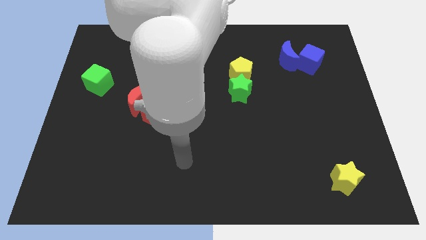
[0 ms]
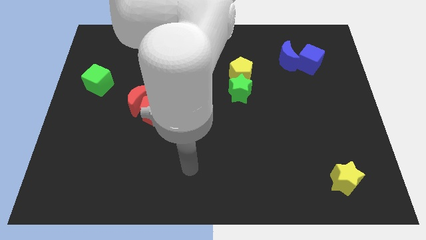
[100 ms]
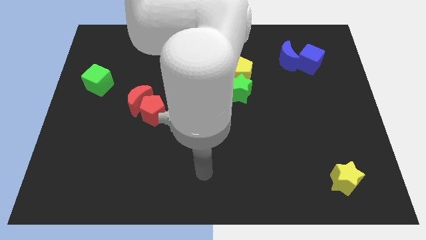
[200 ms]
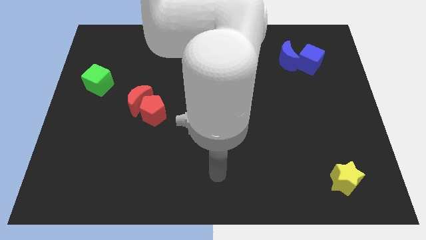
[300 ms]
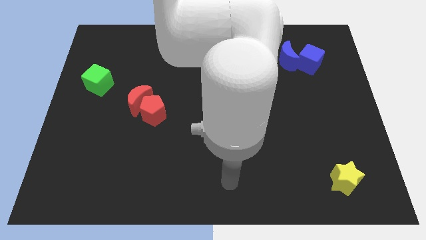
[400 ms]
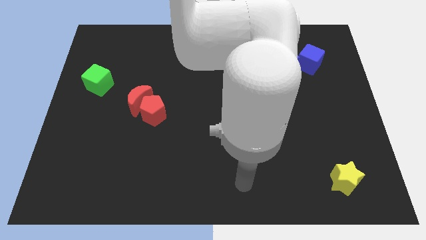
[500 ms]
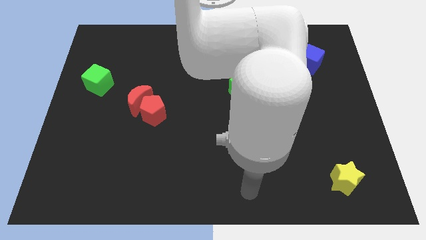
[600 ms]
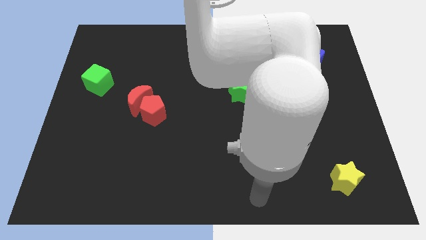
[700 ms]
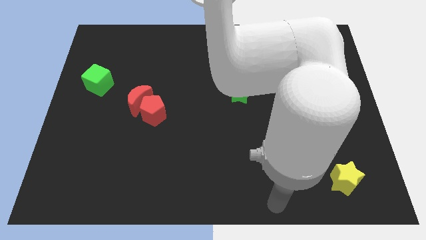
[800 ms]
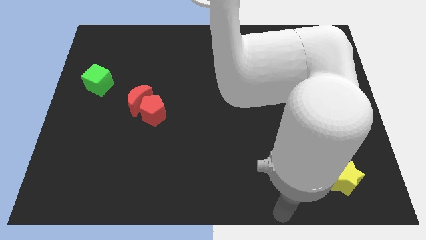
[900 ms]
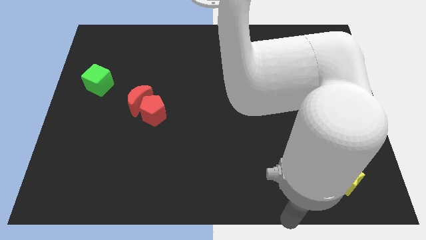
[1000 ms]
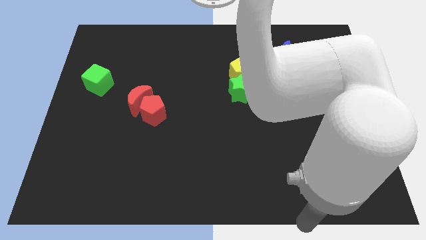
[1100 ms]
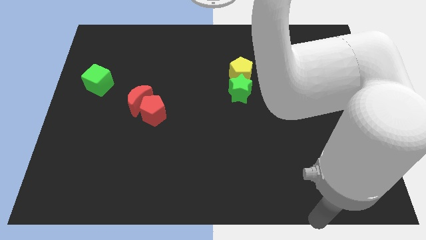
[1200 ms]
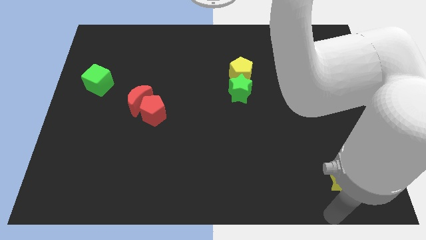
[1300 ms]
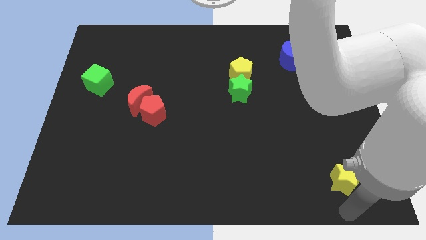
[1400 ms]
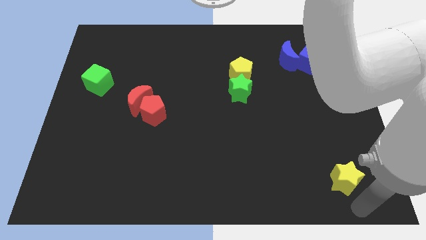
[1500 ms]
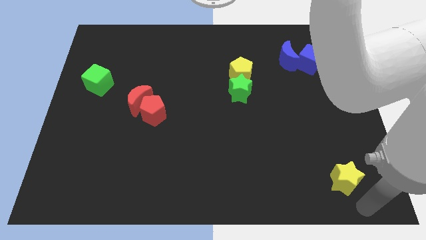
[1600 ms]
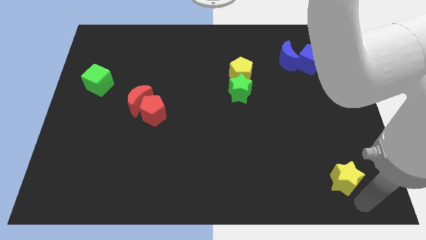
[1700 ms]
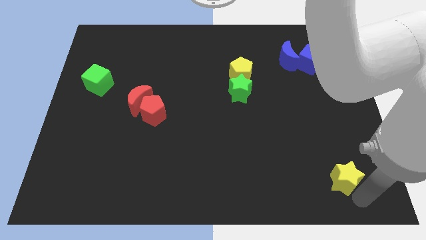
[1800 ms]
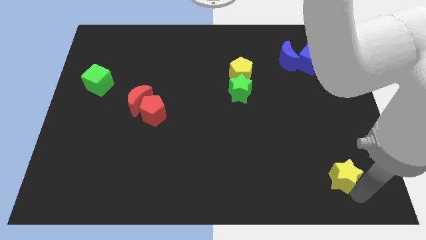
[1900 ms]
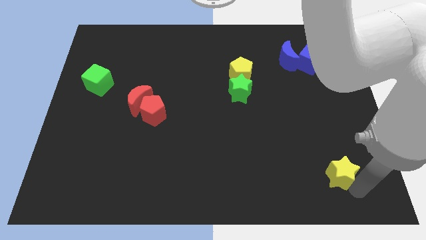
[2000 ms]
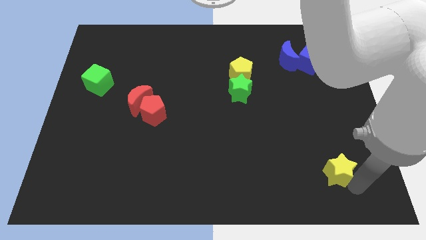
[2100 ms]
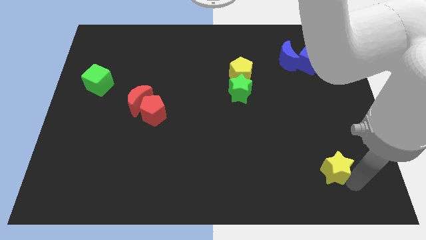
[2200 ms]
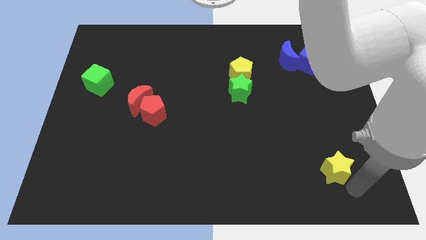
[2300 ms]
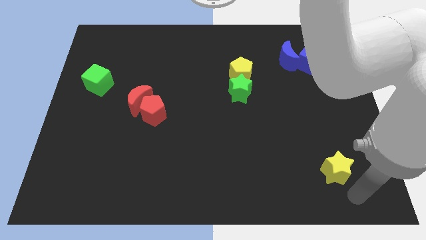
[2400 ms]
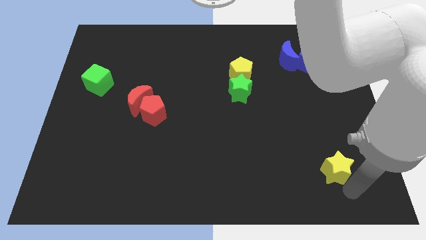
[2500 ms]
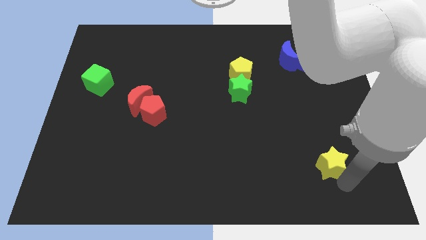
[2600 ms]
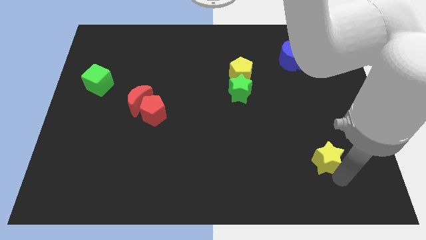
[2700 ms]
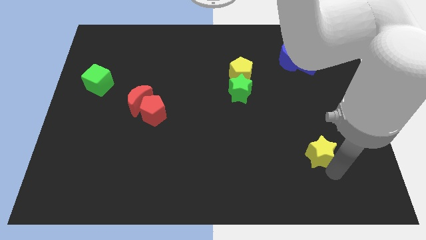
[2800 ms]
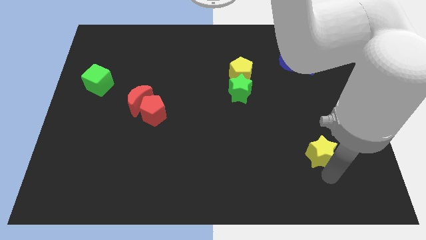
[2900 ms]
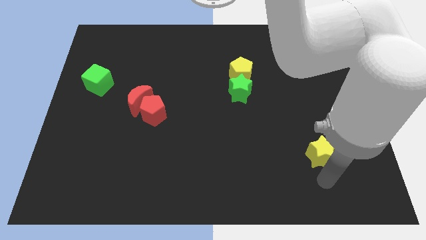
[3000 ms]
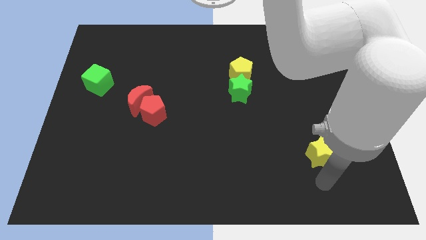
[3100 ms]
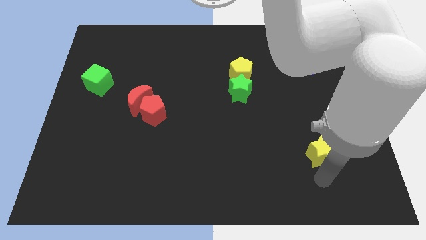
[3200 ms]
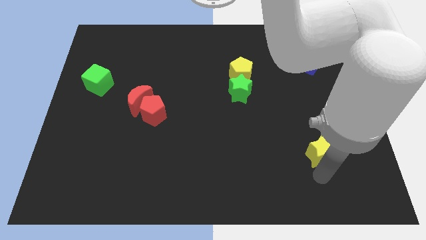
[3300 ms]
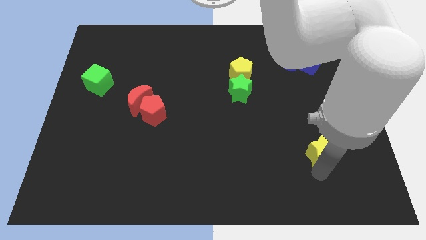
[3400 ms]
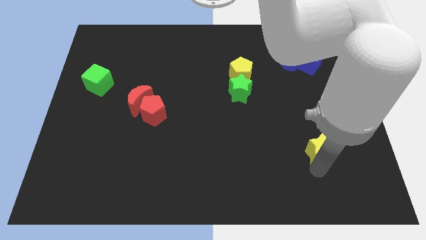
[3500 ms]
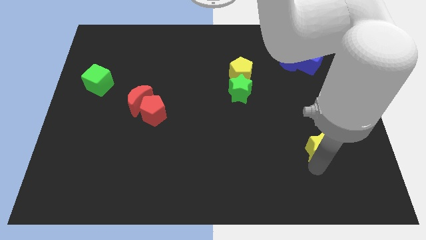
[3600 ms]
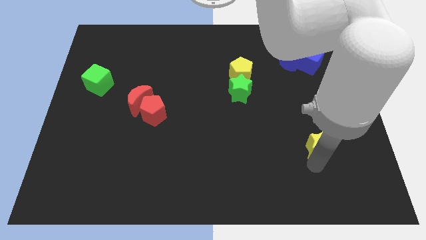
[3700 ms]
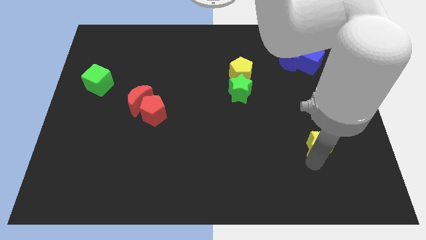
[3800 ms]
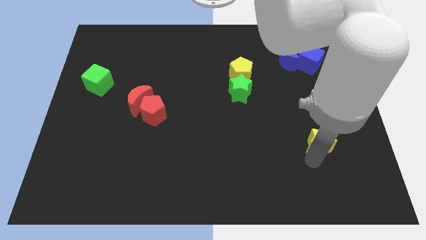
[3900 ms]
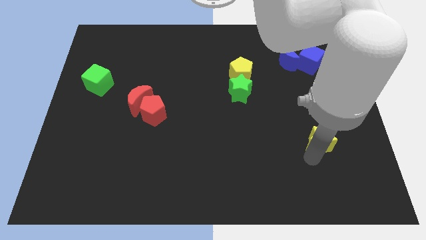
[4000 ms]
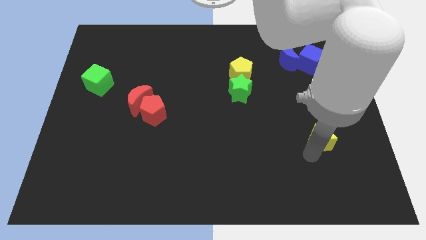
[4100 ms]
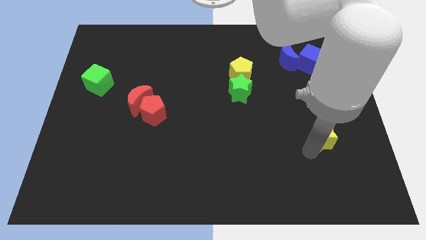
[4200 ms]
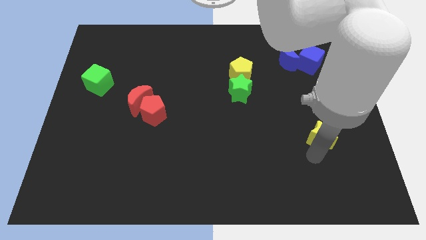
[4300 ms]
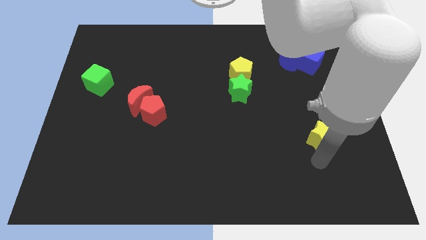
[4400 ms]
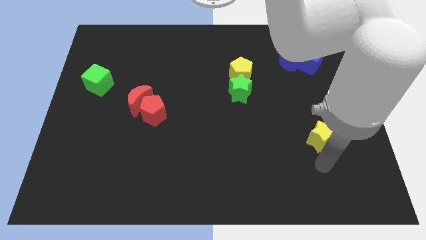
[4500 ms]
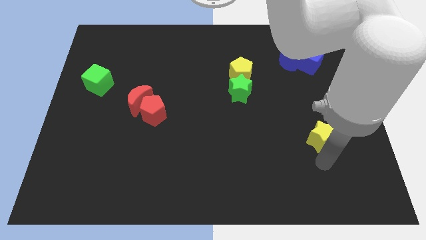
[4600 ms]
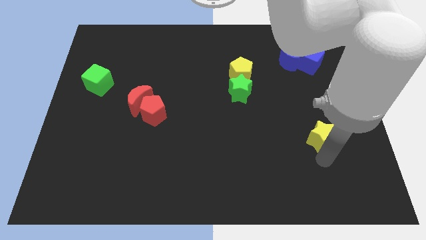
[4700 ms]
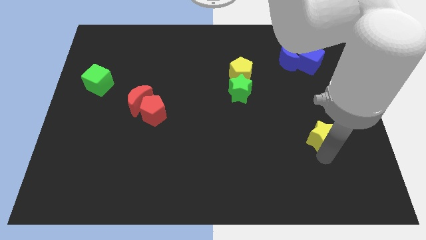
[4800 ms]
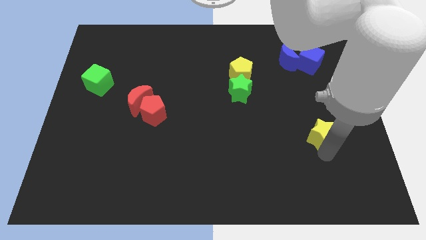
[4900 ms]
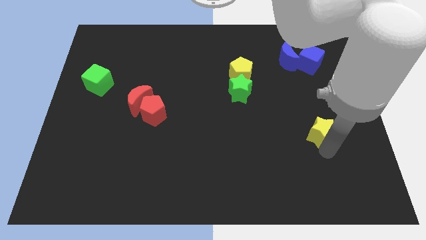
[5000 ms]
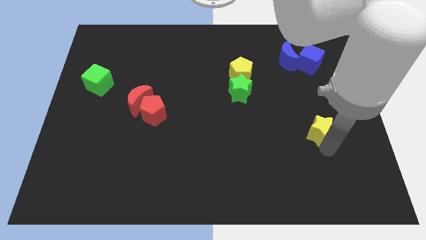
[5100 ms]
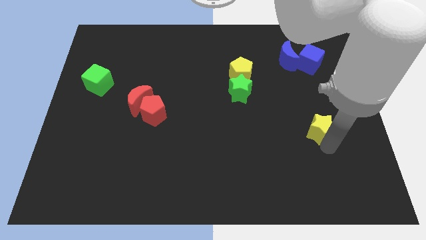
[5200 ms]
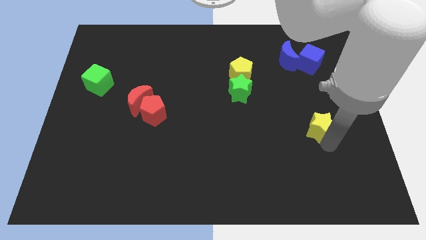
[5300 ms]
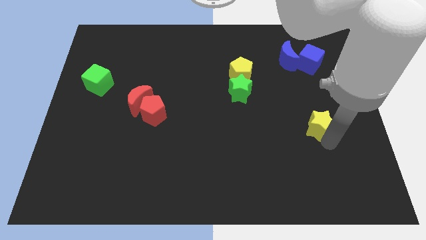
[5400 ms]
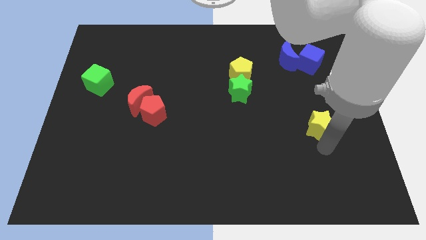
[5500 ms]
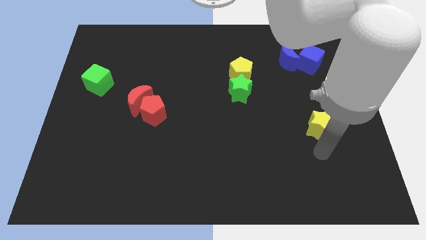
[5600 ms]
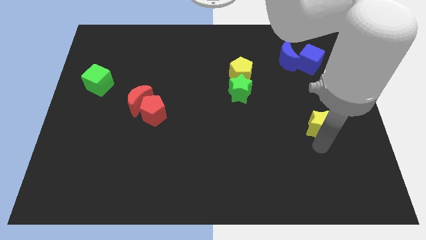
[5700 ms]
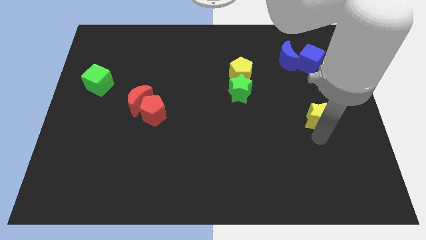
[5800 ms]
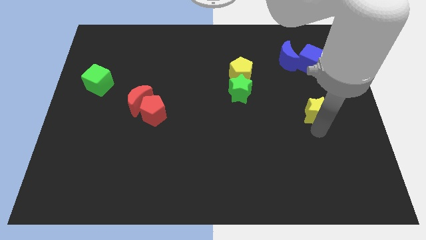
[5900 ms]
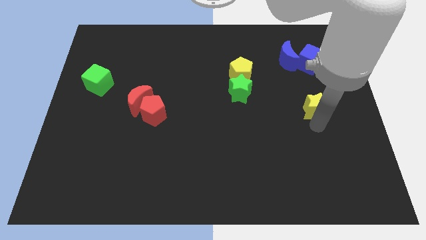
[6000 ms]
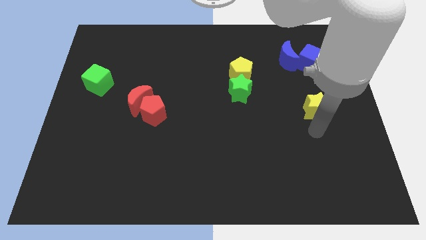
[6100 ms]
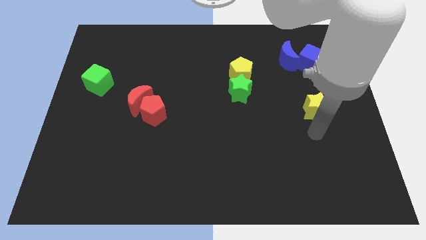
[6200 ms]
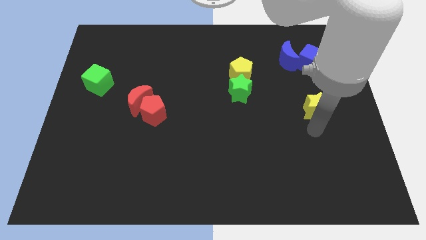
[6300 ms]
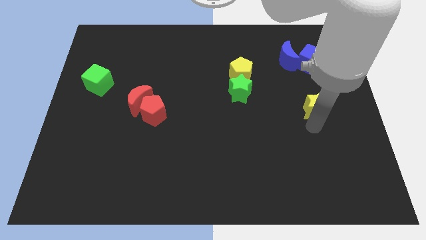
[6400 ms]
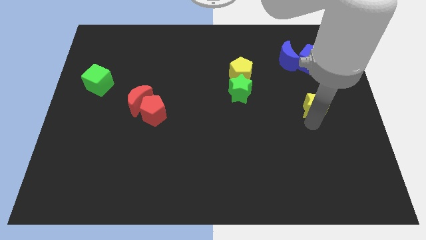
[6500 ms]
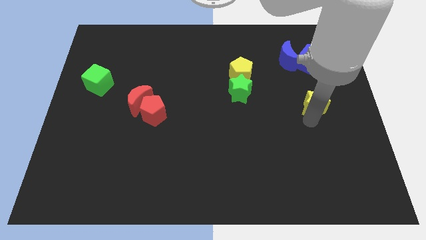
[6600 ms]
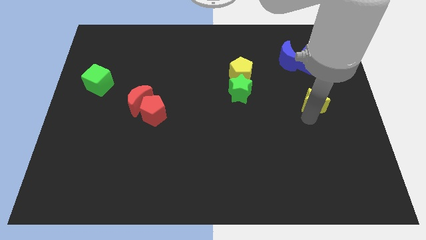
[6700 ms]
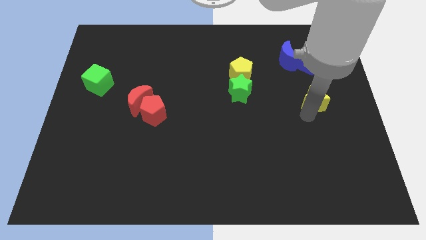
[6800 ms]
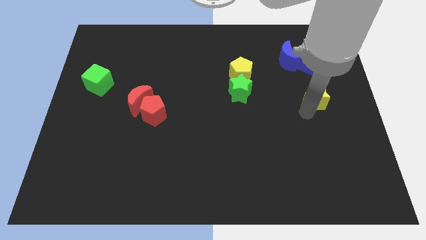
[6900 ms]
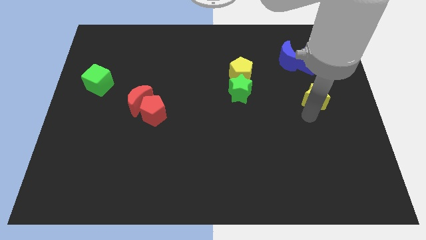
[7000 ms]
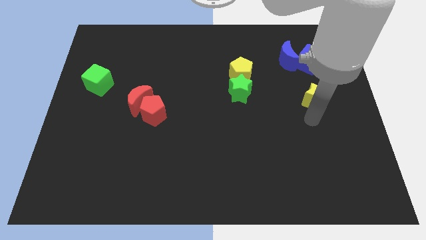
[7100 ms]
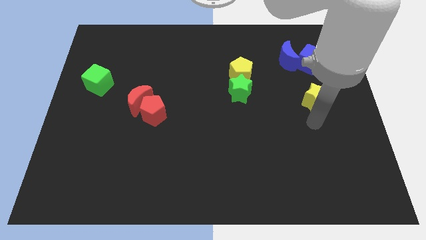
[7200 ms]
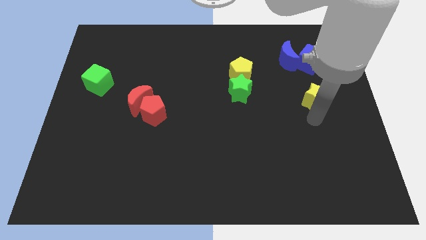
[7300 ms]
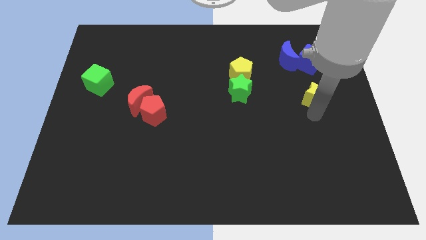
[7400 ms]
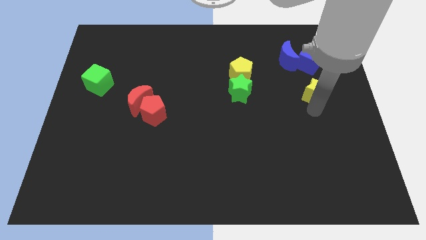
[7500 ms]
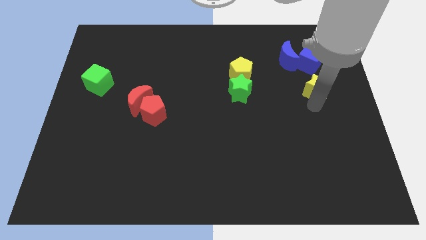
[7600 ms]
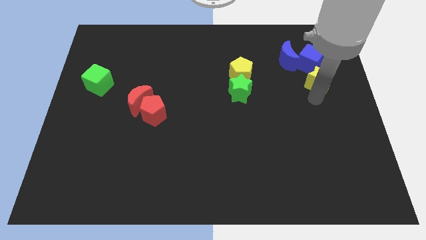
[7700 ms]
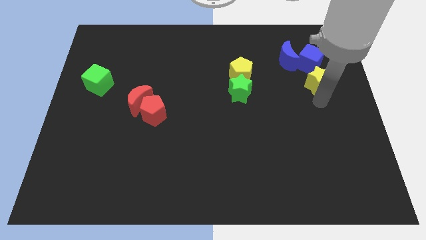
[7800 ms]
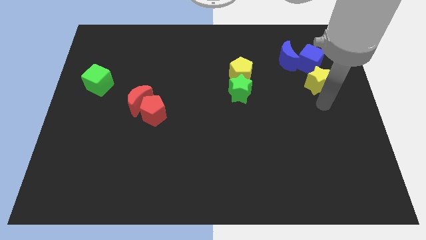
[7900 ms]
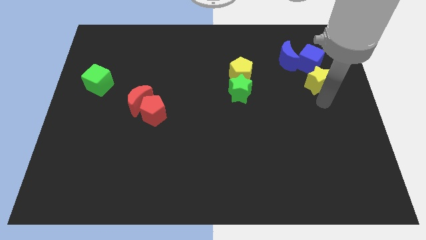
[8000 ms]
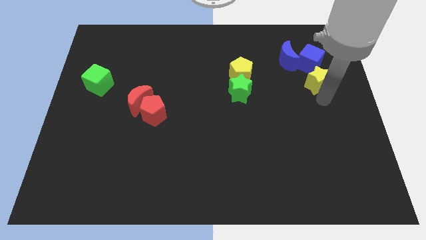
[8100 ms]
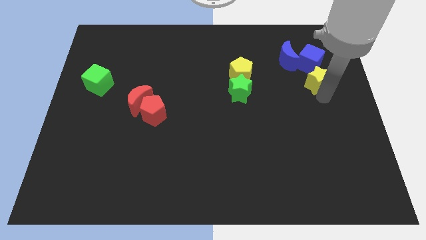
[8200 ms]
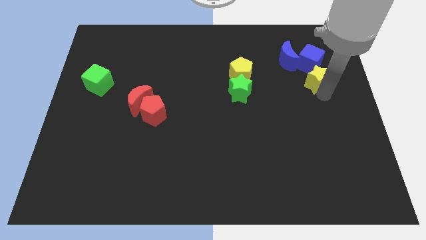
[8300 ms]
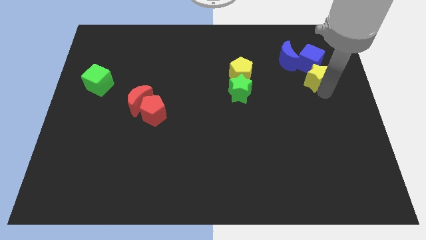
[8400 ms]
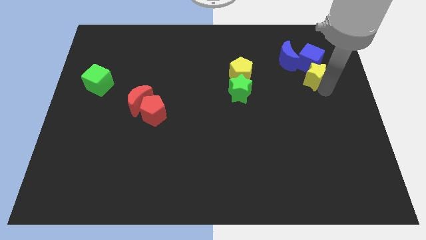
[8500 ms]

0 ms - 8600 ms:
move the yellow star towards the blue cube
